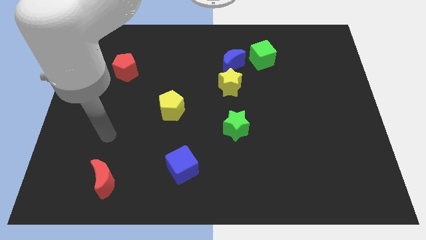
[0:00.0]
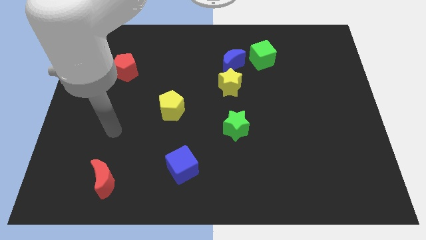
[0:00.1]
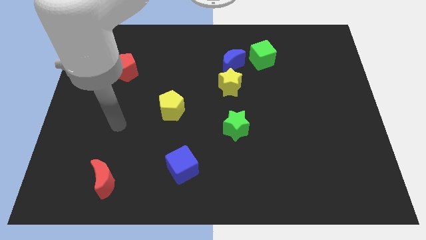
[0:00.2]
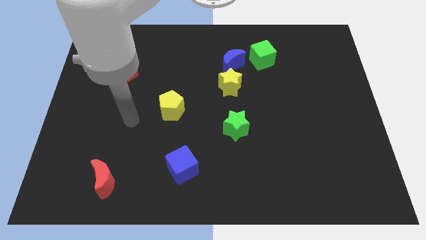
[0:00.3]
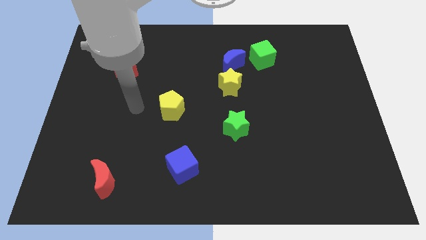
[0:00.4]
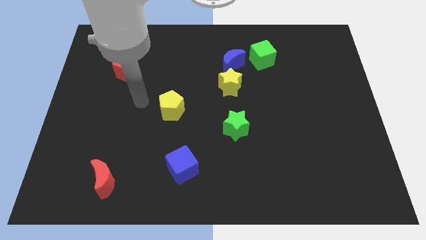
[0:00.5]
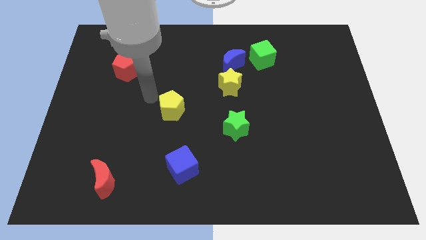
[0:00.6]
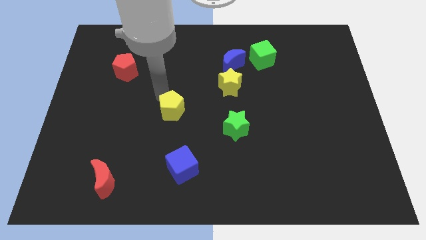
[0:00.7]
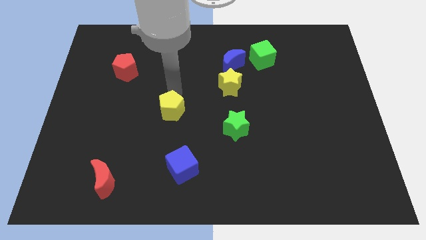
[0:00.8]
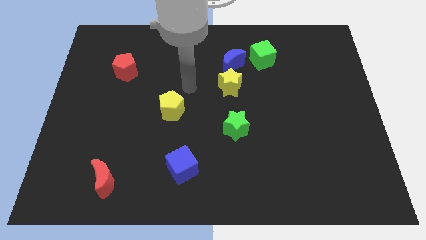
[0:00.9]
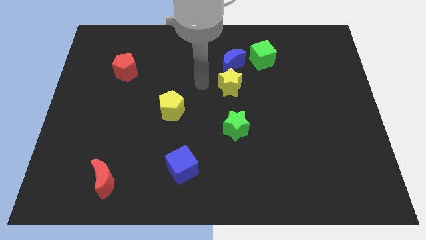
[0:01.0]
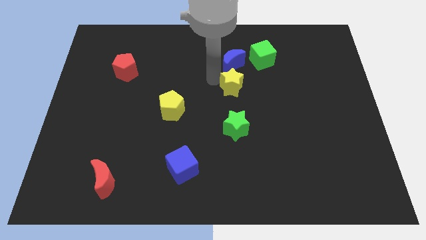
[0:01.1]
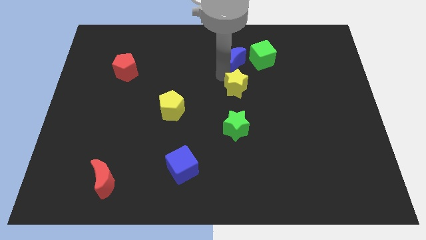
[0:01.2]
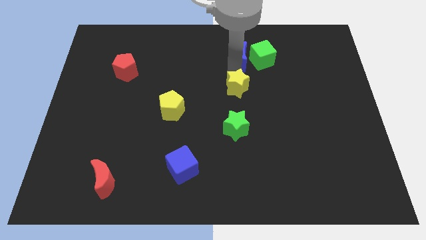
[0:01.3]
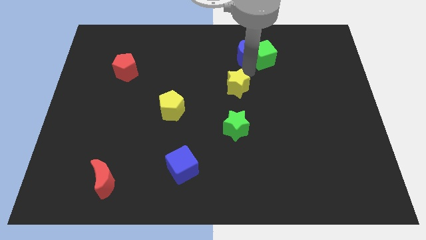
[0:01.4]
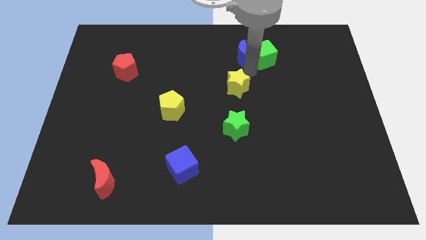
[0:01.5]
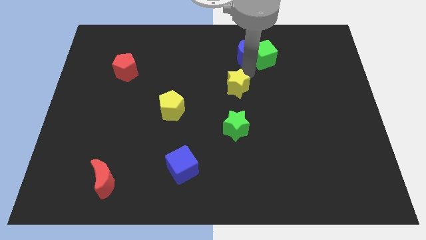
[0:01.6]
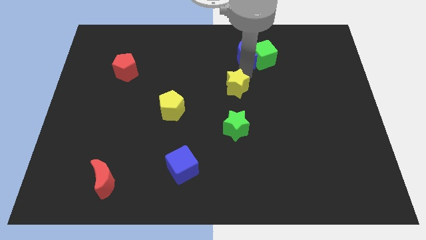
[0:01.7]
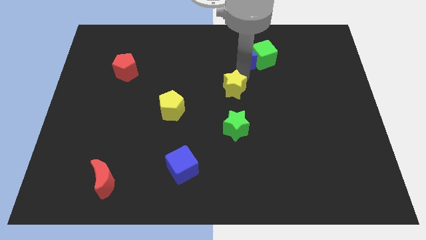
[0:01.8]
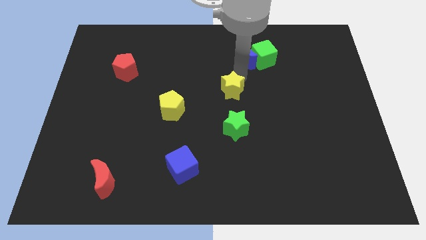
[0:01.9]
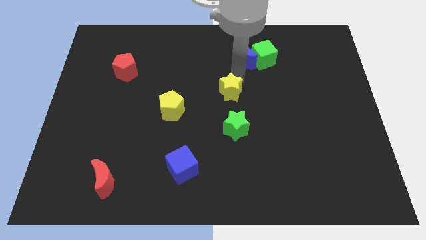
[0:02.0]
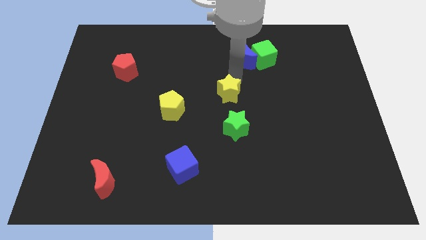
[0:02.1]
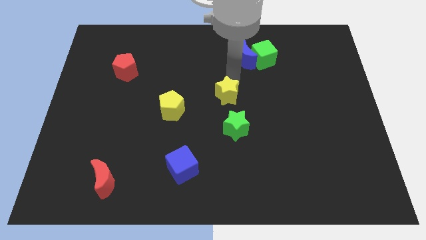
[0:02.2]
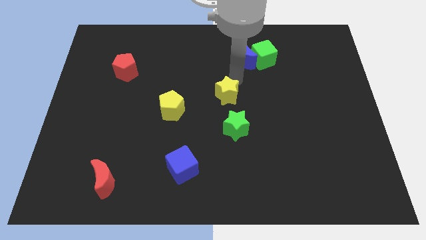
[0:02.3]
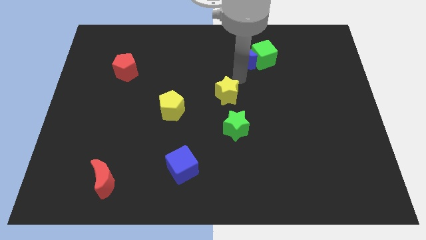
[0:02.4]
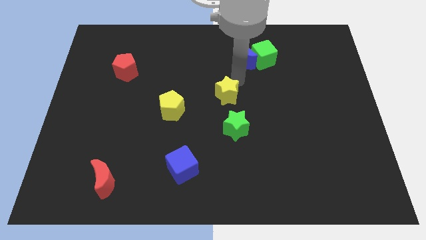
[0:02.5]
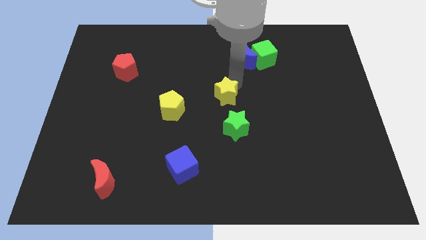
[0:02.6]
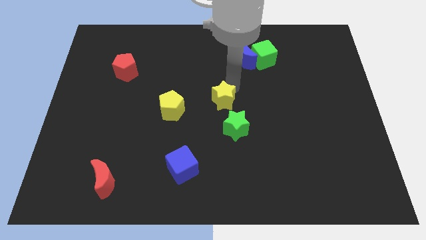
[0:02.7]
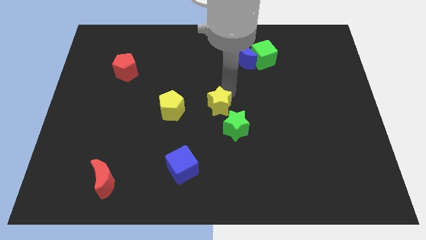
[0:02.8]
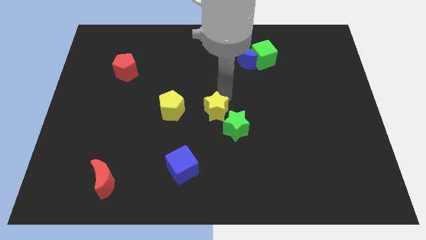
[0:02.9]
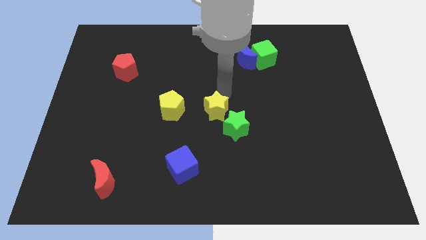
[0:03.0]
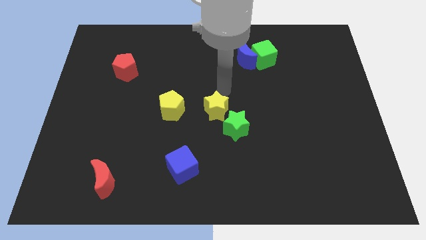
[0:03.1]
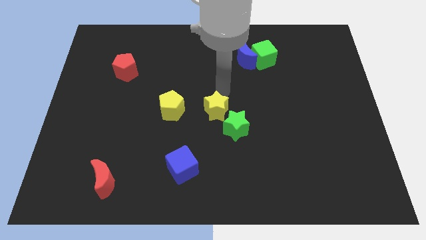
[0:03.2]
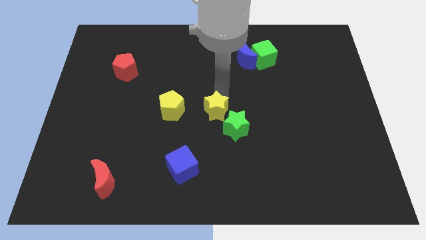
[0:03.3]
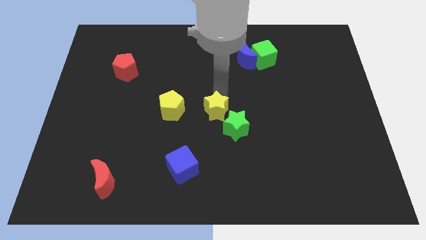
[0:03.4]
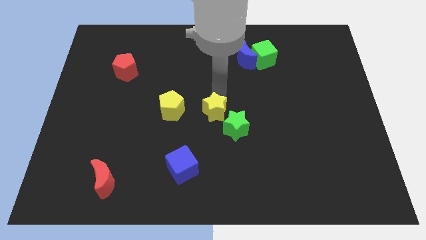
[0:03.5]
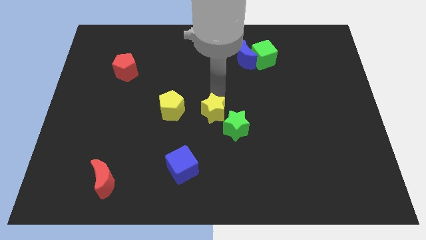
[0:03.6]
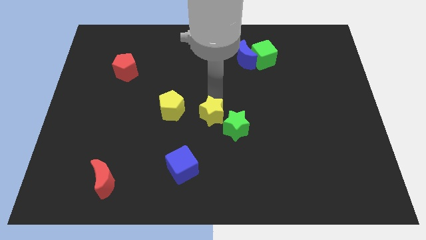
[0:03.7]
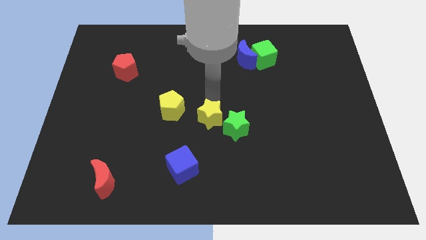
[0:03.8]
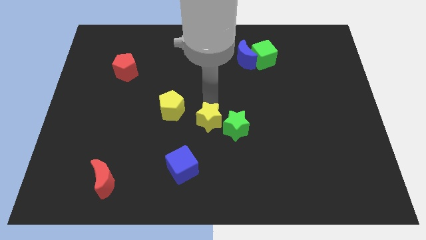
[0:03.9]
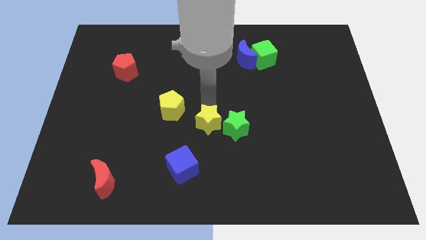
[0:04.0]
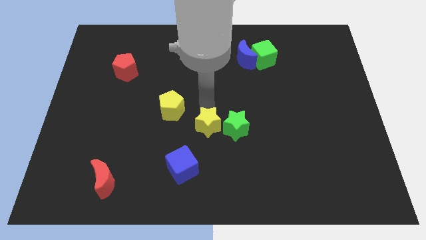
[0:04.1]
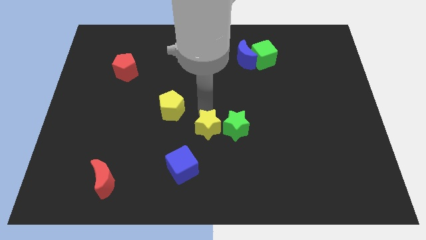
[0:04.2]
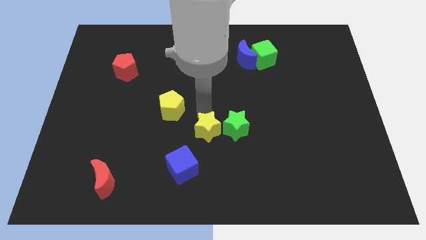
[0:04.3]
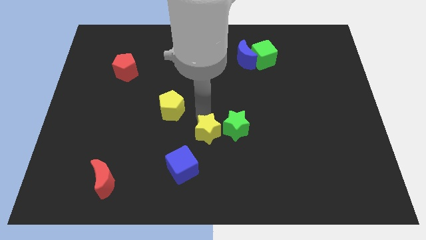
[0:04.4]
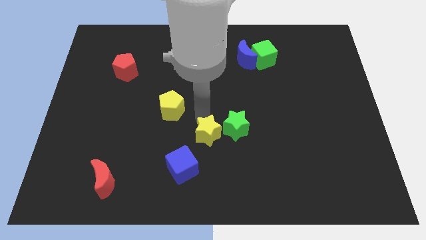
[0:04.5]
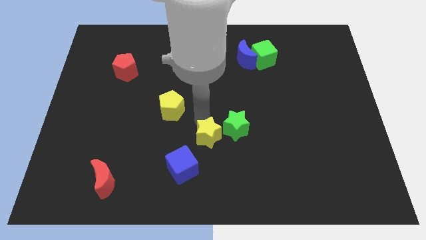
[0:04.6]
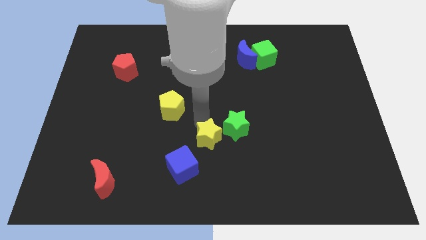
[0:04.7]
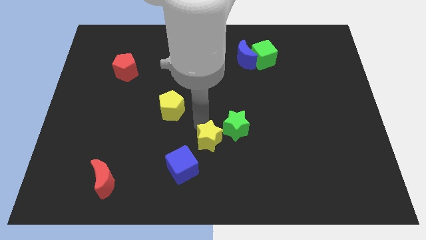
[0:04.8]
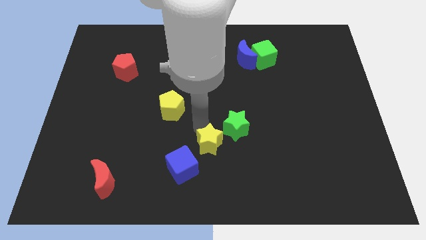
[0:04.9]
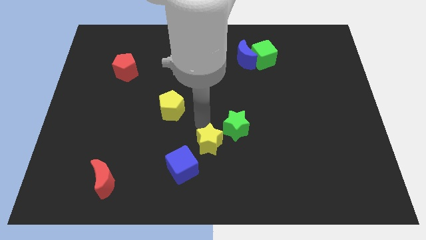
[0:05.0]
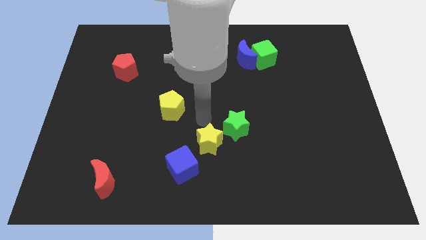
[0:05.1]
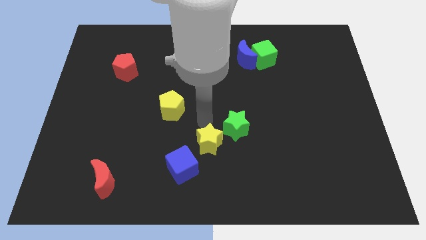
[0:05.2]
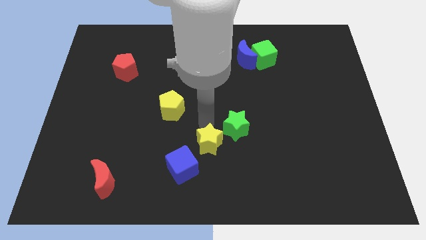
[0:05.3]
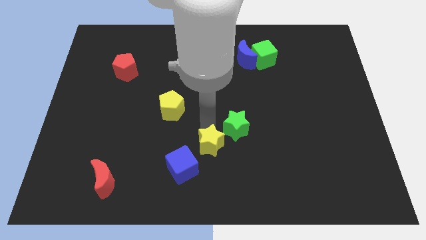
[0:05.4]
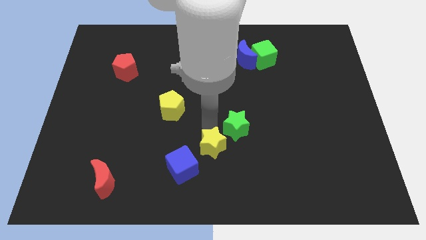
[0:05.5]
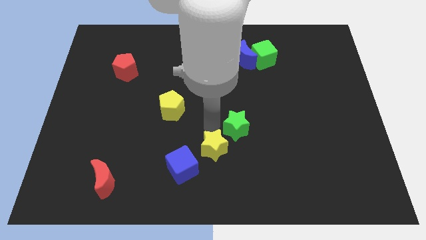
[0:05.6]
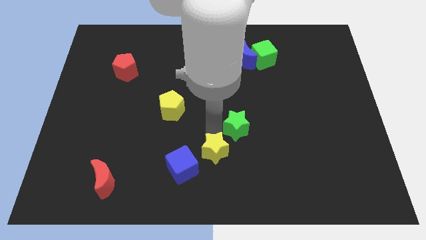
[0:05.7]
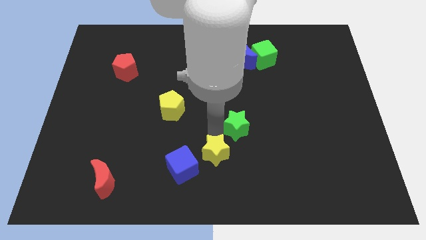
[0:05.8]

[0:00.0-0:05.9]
push the yellow star to the bottom

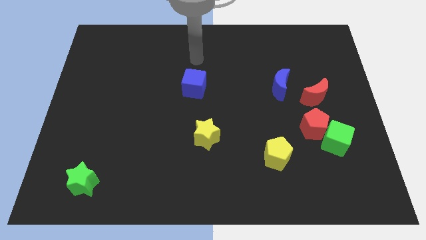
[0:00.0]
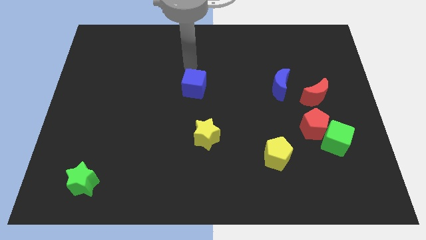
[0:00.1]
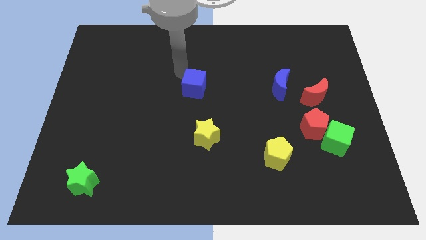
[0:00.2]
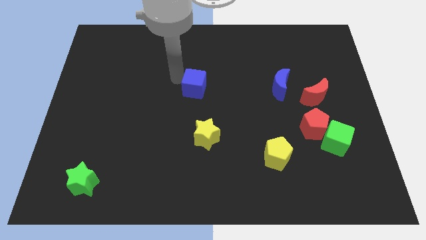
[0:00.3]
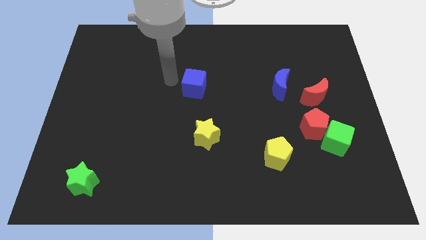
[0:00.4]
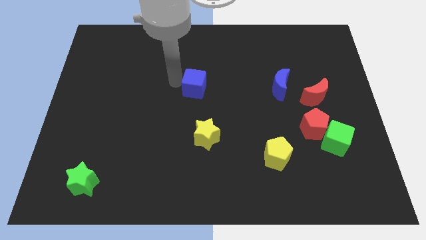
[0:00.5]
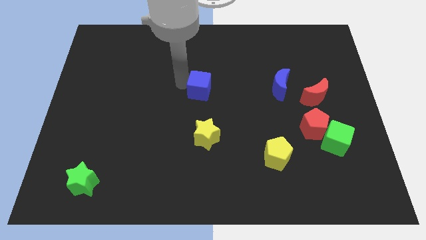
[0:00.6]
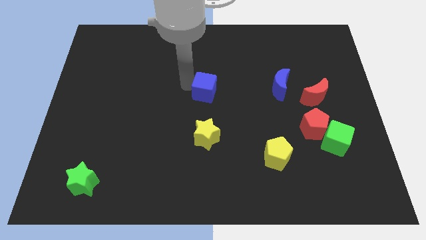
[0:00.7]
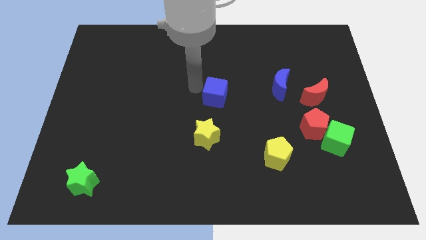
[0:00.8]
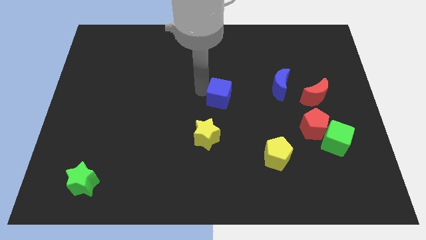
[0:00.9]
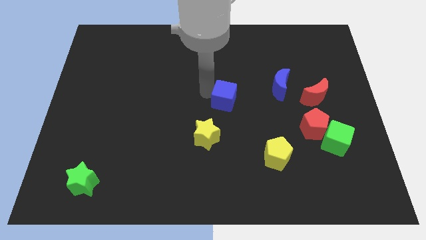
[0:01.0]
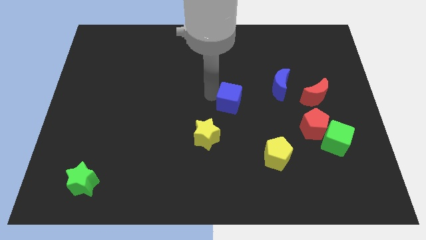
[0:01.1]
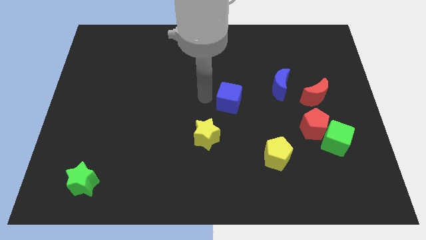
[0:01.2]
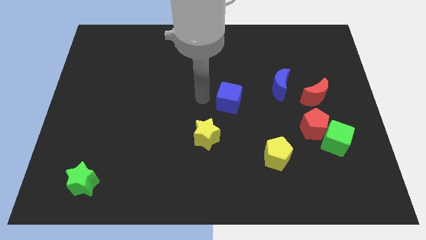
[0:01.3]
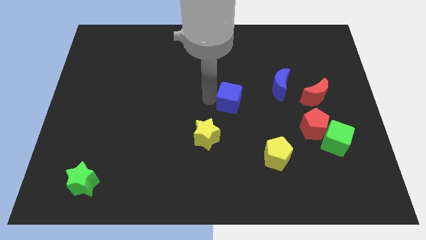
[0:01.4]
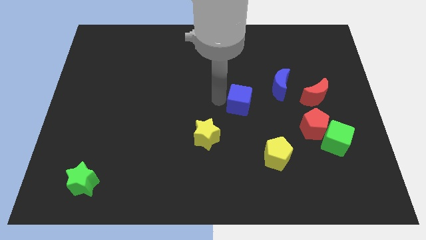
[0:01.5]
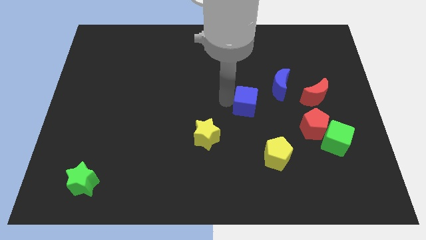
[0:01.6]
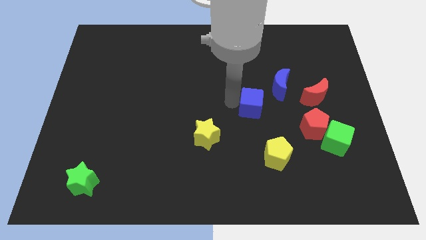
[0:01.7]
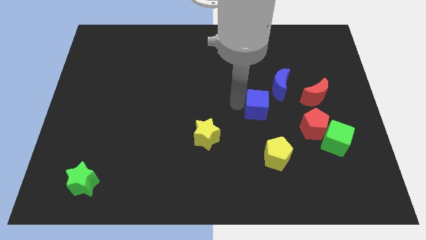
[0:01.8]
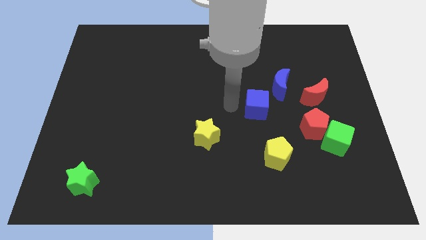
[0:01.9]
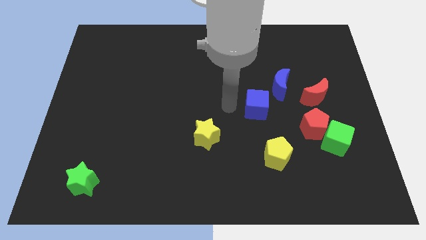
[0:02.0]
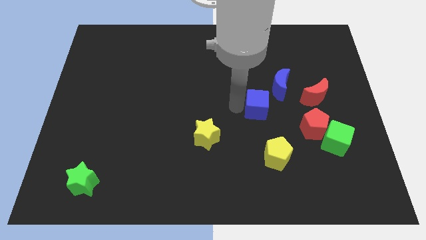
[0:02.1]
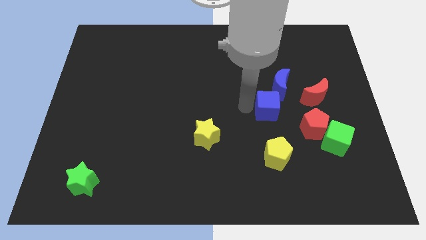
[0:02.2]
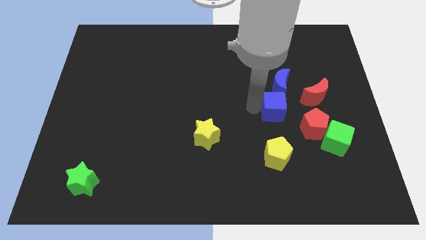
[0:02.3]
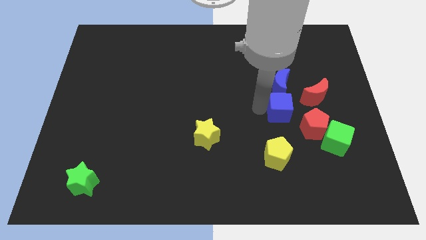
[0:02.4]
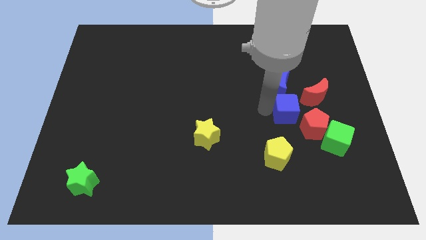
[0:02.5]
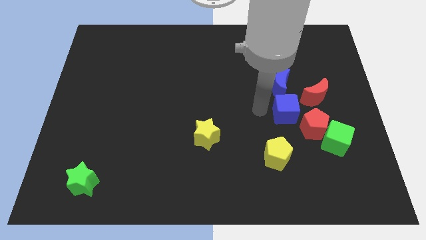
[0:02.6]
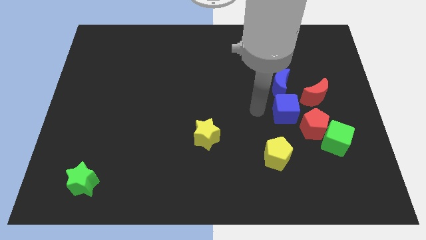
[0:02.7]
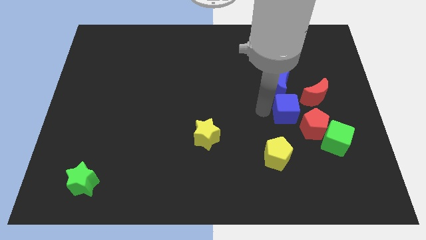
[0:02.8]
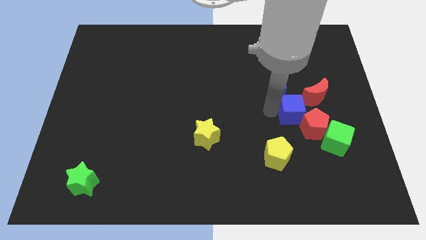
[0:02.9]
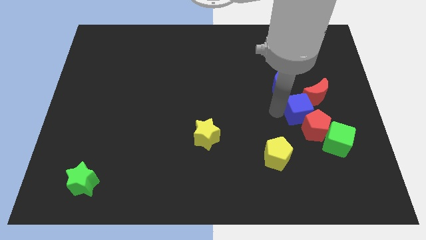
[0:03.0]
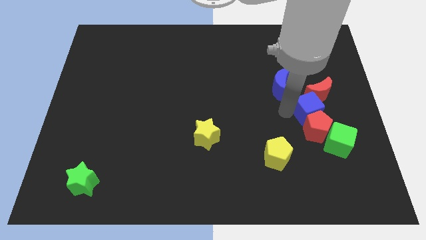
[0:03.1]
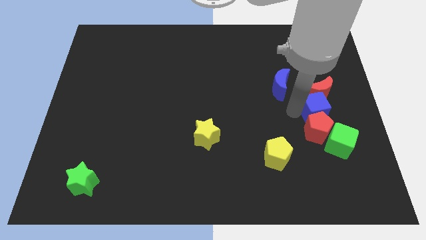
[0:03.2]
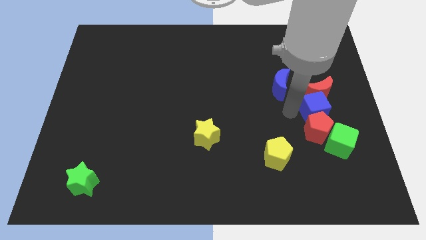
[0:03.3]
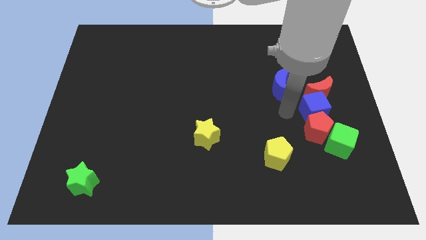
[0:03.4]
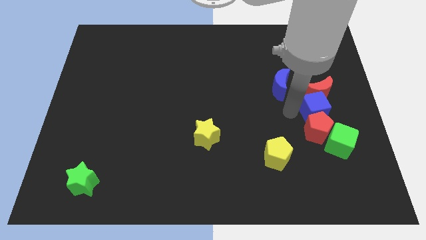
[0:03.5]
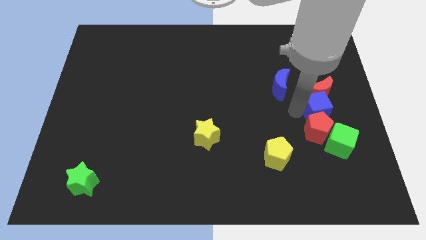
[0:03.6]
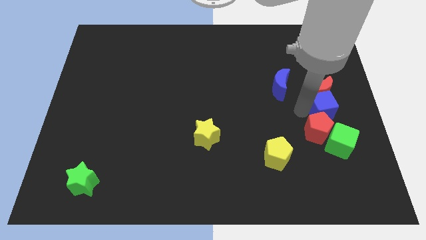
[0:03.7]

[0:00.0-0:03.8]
push the blue cube to the right side of the board
